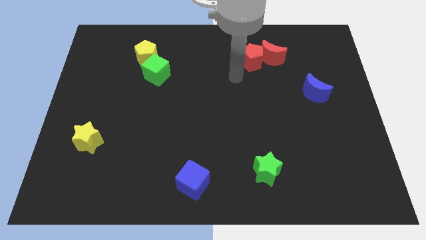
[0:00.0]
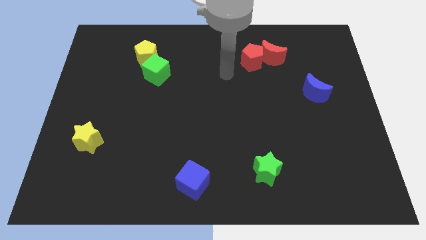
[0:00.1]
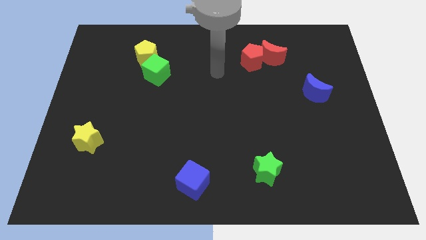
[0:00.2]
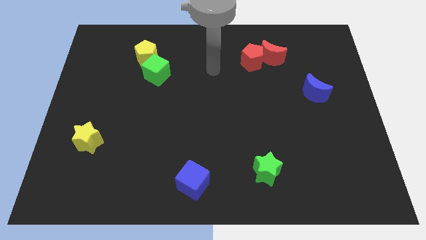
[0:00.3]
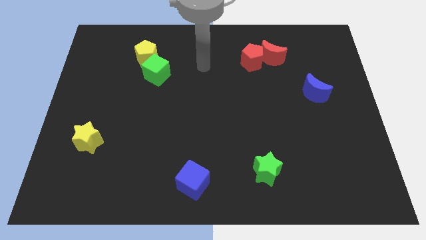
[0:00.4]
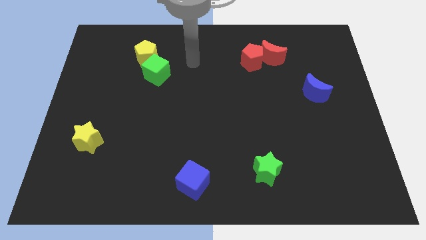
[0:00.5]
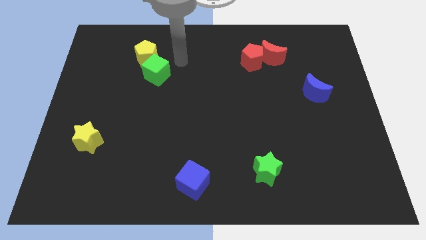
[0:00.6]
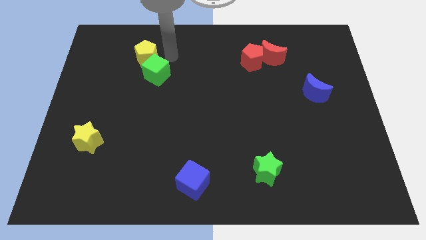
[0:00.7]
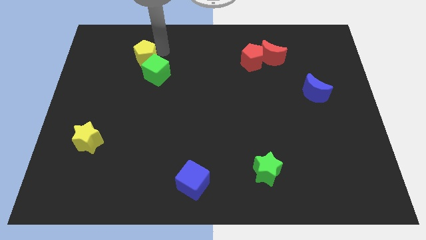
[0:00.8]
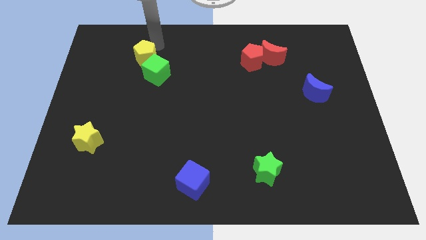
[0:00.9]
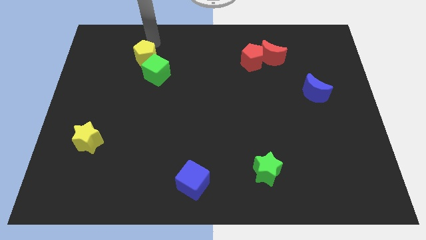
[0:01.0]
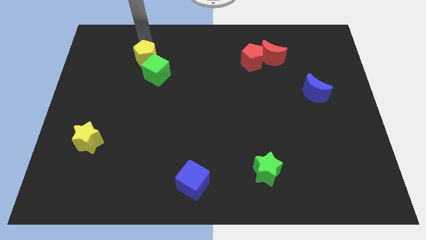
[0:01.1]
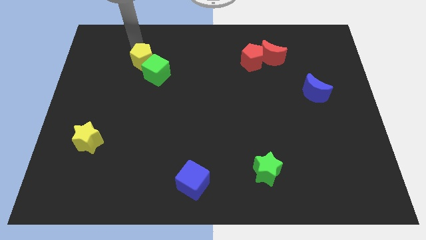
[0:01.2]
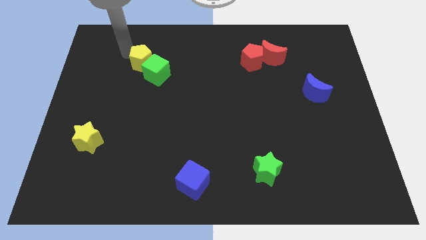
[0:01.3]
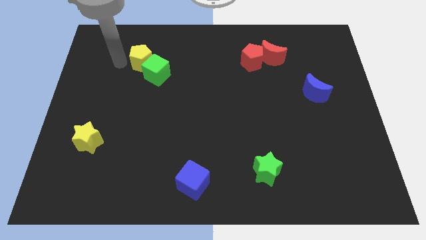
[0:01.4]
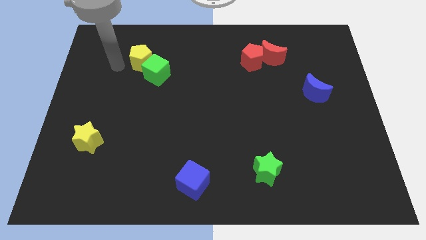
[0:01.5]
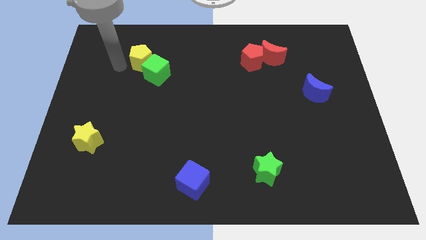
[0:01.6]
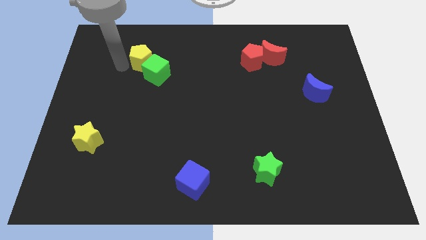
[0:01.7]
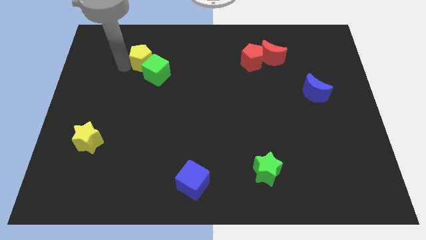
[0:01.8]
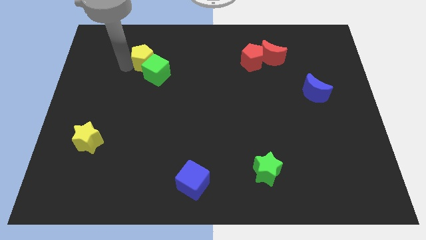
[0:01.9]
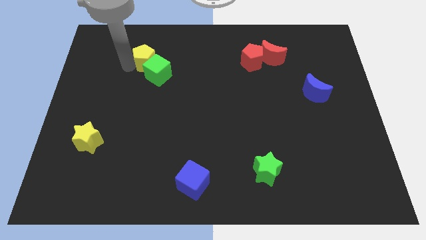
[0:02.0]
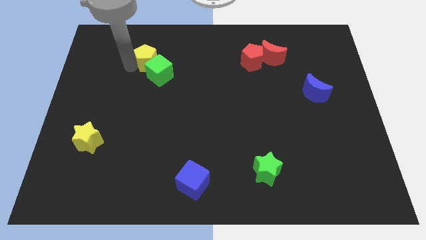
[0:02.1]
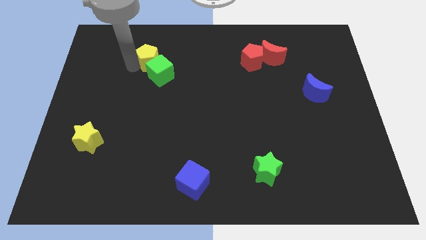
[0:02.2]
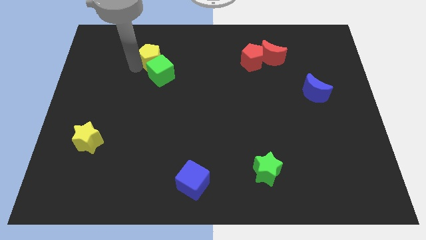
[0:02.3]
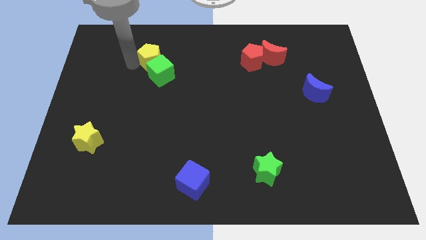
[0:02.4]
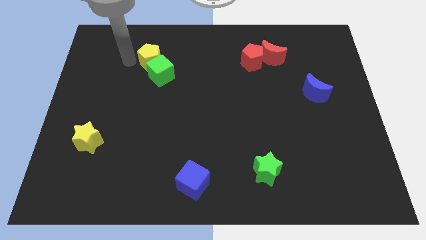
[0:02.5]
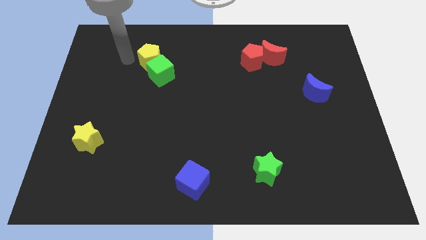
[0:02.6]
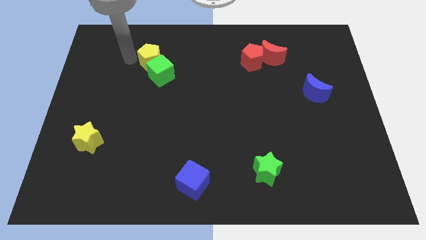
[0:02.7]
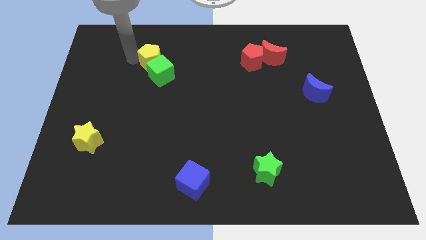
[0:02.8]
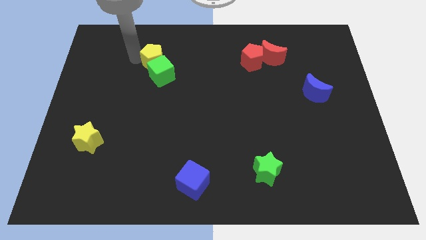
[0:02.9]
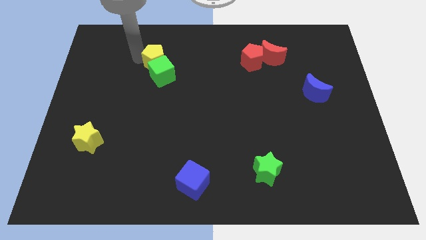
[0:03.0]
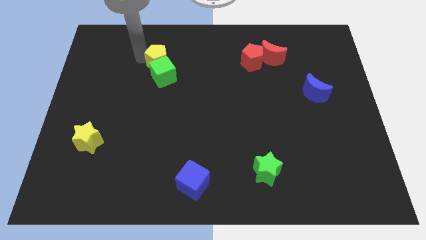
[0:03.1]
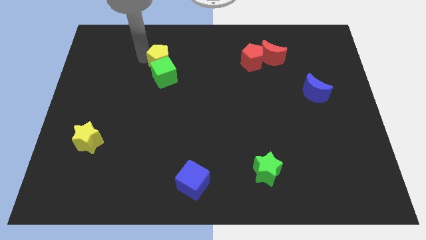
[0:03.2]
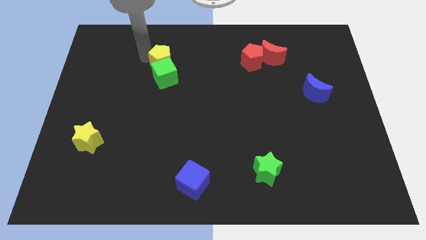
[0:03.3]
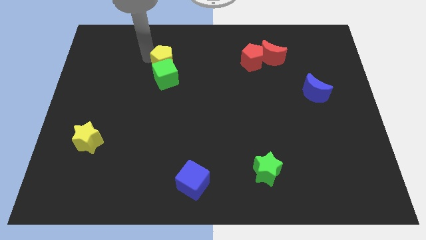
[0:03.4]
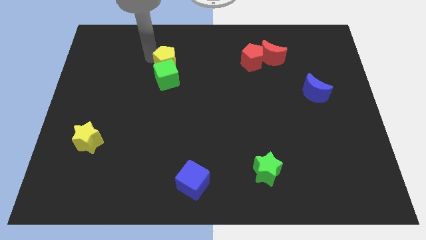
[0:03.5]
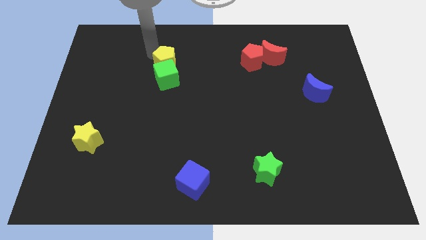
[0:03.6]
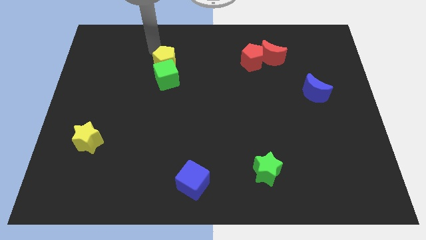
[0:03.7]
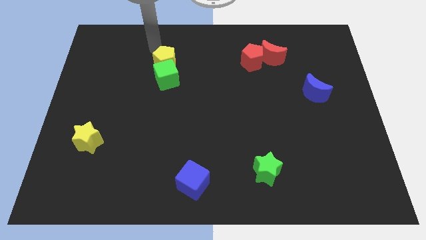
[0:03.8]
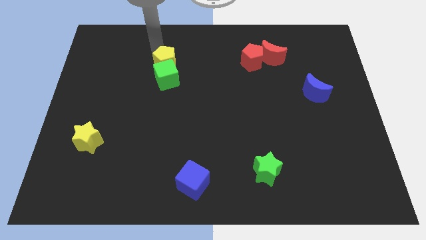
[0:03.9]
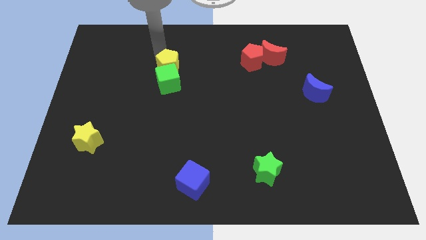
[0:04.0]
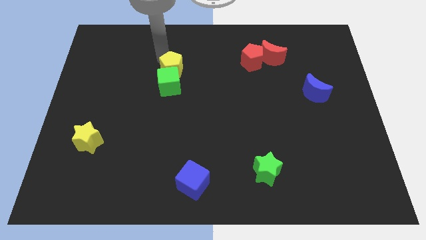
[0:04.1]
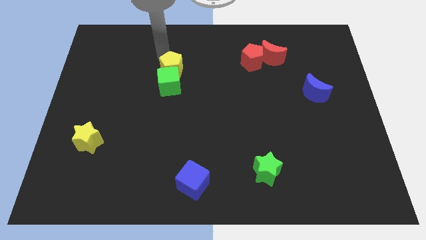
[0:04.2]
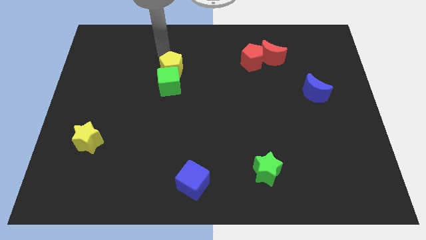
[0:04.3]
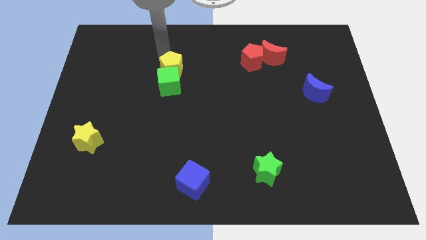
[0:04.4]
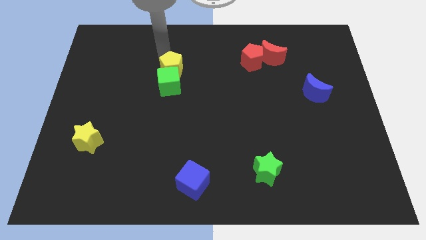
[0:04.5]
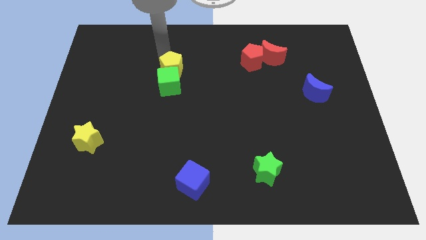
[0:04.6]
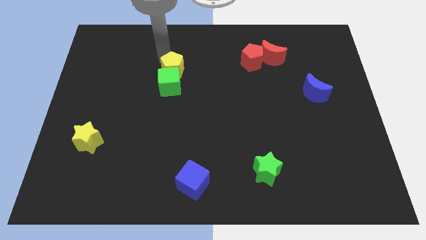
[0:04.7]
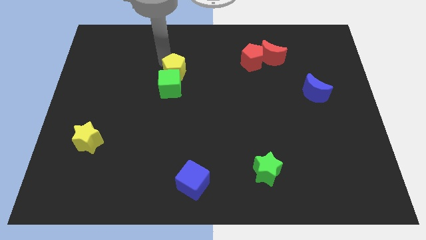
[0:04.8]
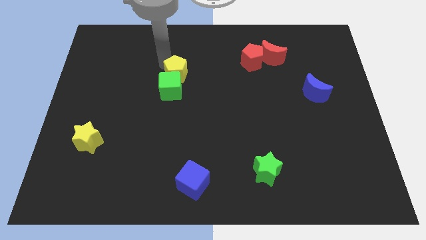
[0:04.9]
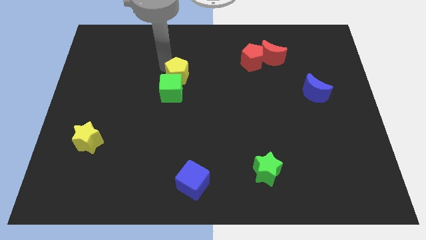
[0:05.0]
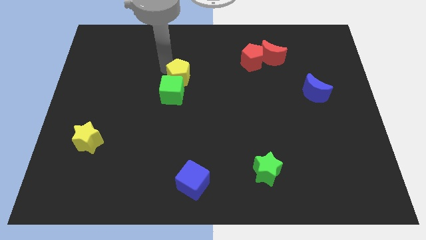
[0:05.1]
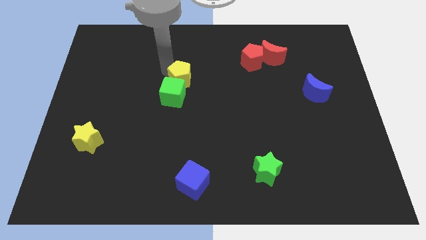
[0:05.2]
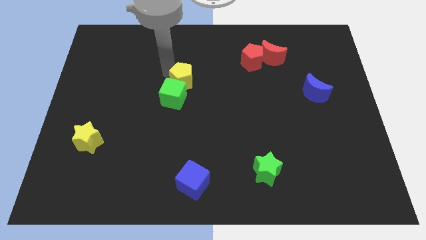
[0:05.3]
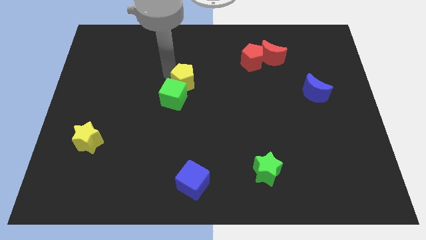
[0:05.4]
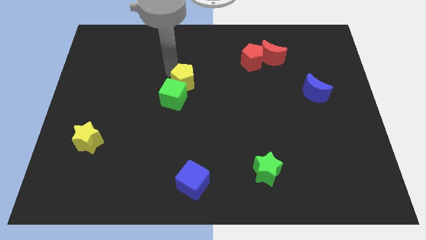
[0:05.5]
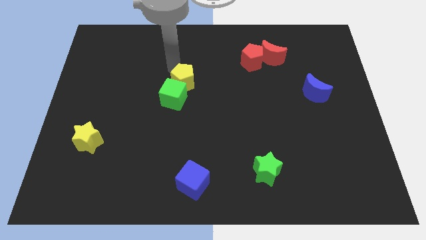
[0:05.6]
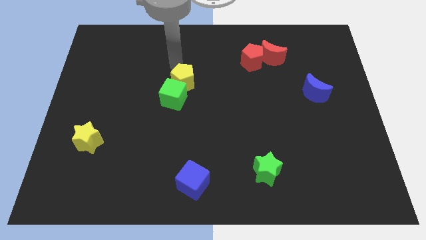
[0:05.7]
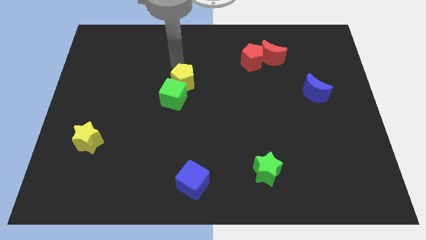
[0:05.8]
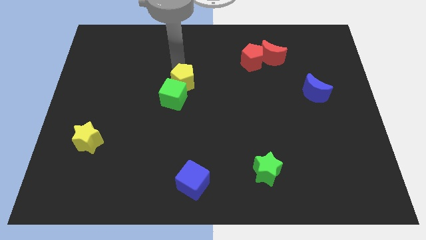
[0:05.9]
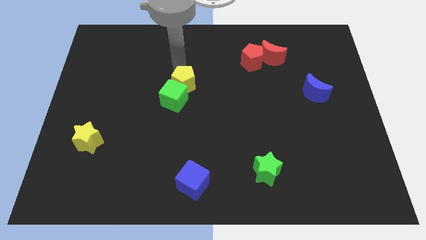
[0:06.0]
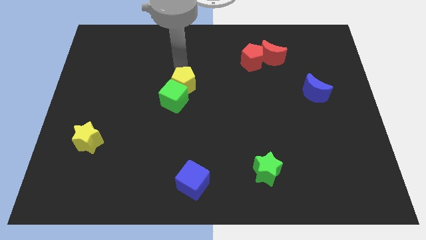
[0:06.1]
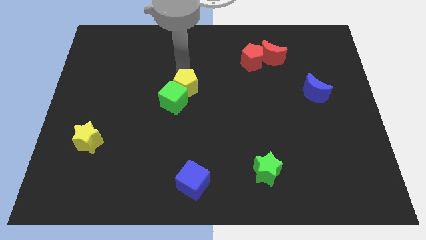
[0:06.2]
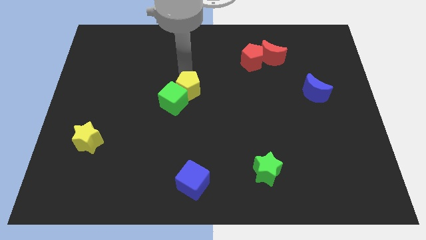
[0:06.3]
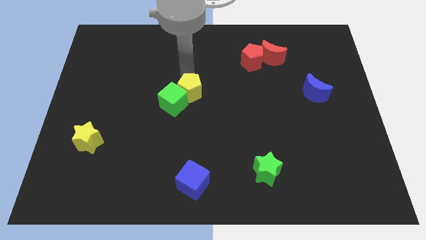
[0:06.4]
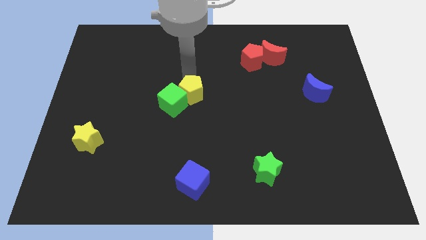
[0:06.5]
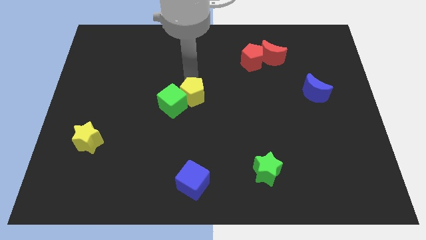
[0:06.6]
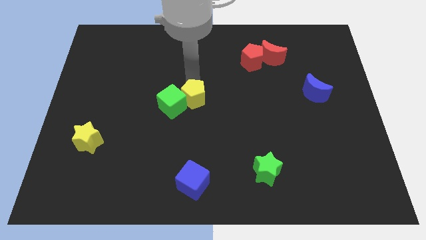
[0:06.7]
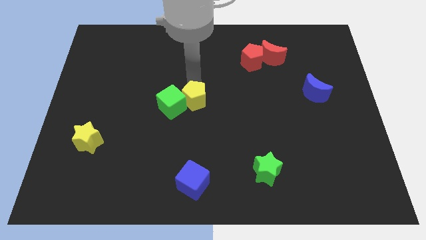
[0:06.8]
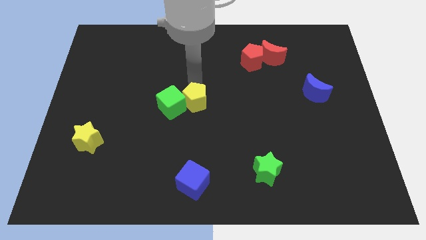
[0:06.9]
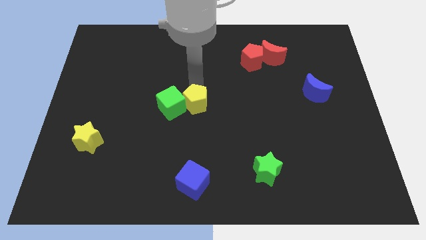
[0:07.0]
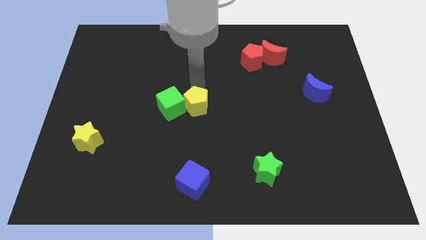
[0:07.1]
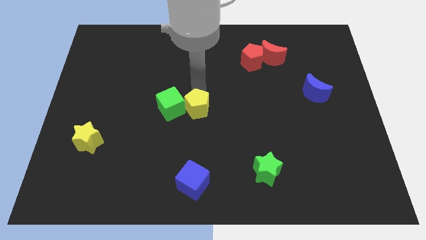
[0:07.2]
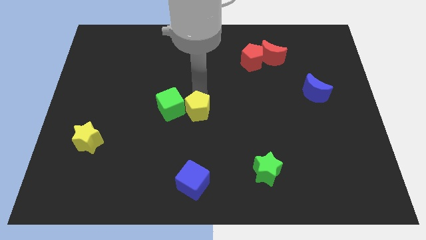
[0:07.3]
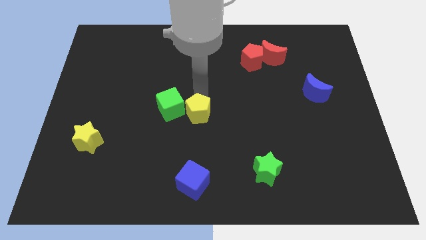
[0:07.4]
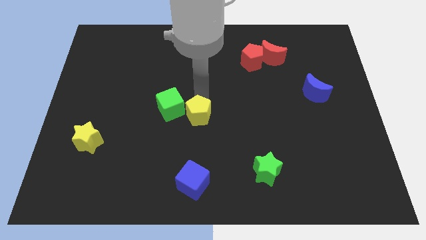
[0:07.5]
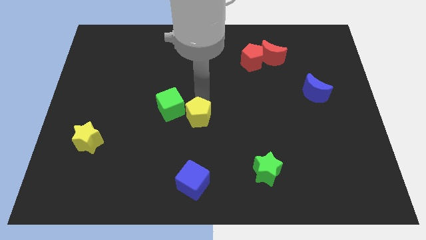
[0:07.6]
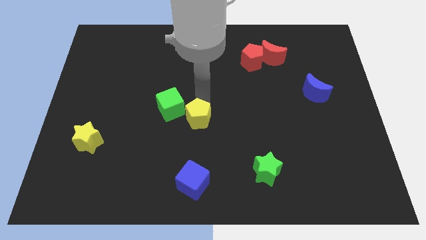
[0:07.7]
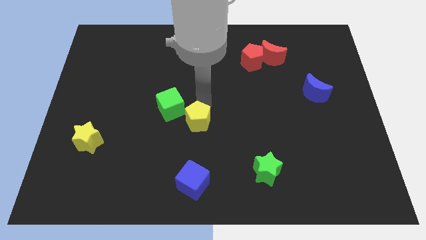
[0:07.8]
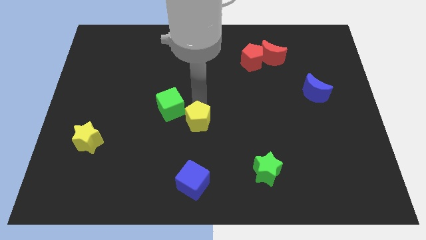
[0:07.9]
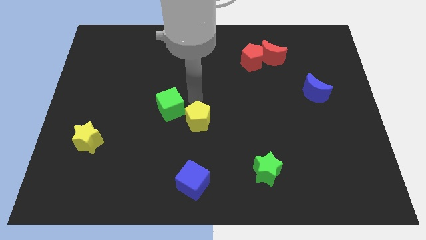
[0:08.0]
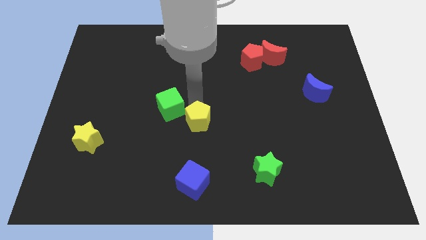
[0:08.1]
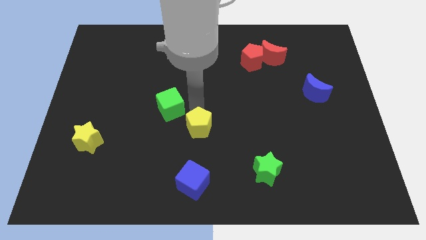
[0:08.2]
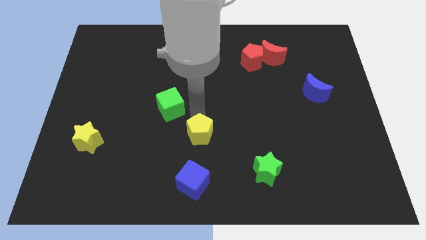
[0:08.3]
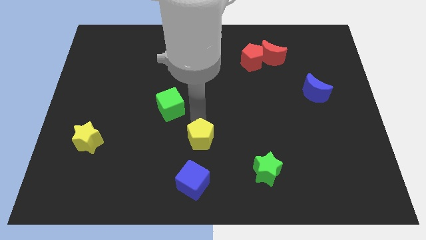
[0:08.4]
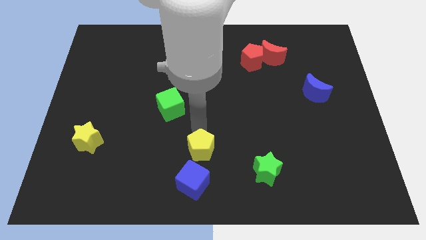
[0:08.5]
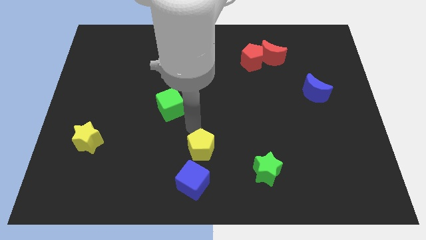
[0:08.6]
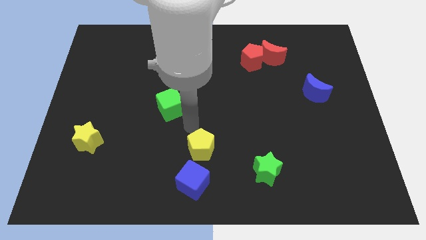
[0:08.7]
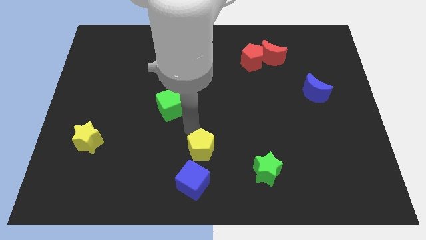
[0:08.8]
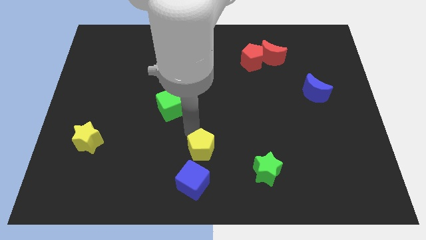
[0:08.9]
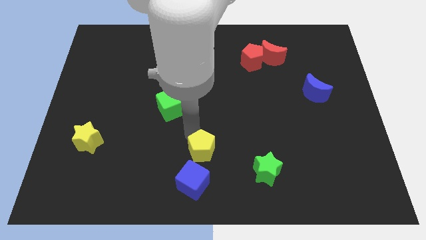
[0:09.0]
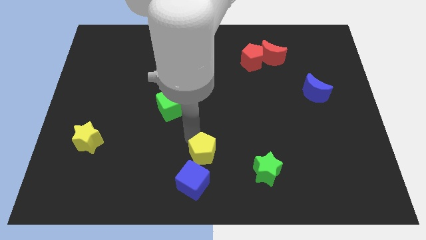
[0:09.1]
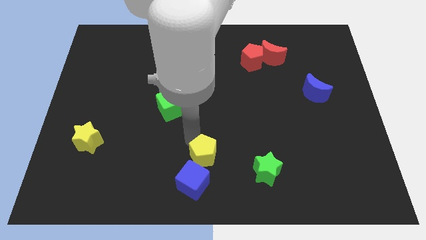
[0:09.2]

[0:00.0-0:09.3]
move the yellow pentagon to the bottom side
